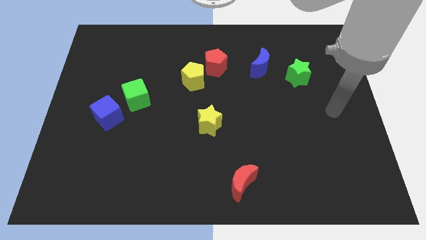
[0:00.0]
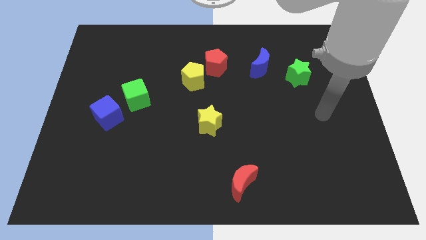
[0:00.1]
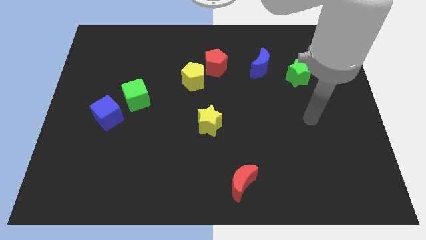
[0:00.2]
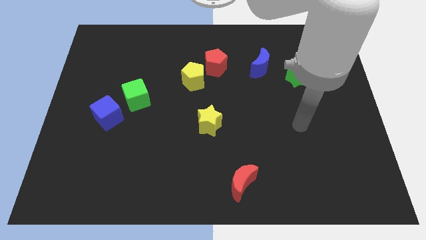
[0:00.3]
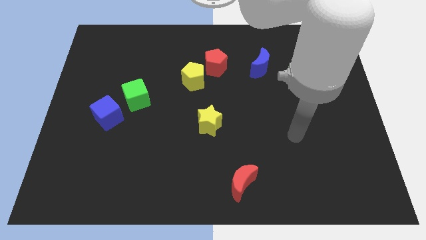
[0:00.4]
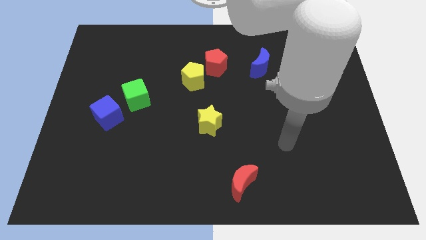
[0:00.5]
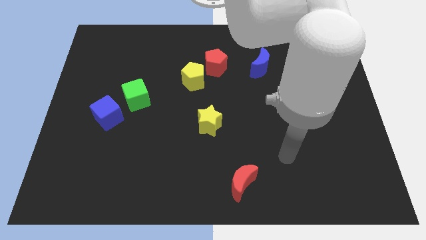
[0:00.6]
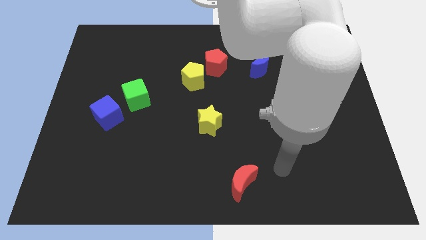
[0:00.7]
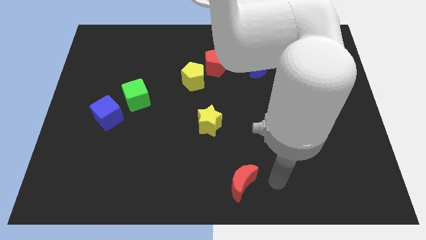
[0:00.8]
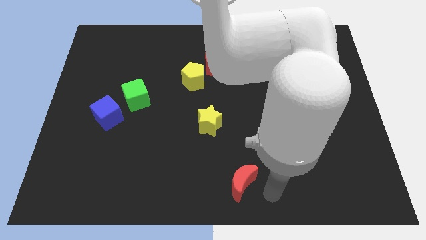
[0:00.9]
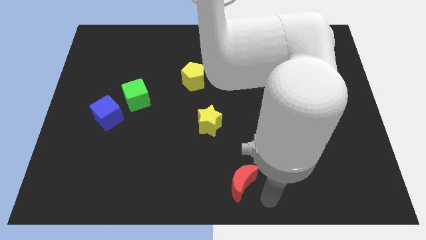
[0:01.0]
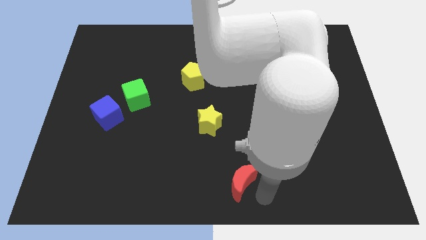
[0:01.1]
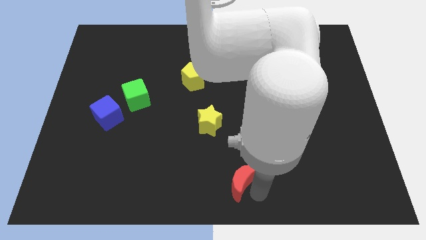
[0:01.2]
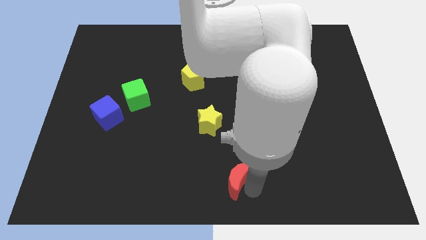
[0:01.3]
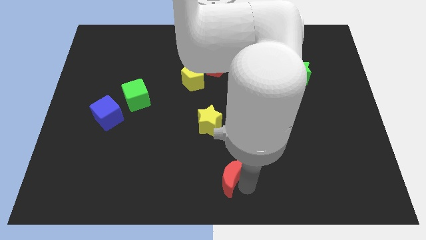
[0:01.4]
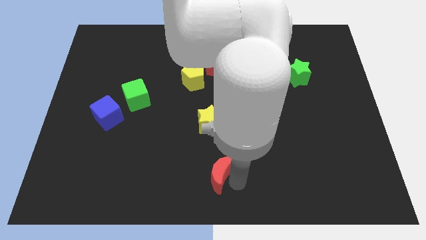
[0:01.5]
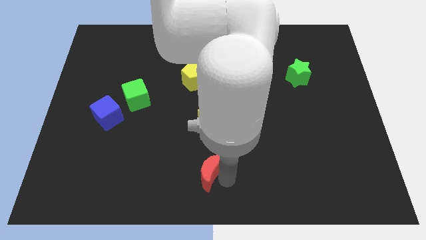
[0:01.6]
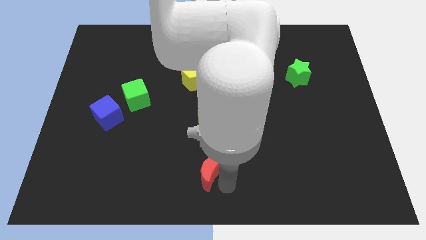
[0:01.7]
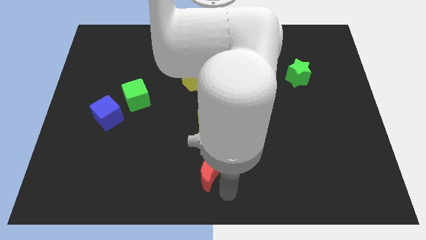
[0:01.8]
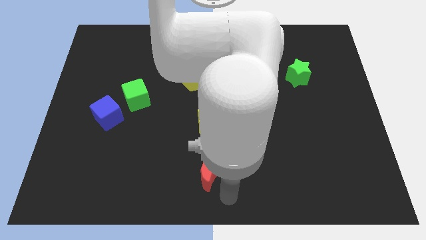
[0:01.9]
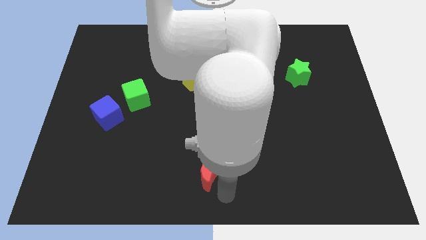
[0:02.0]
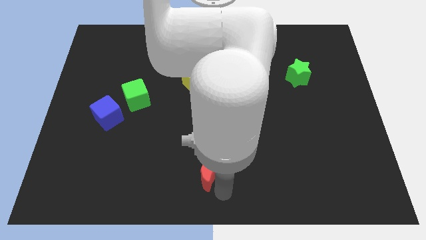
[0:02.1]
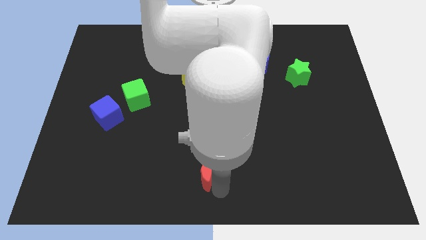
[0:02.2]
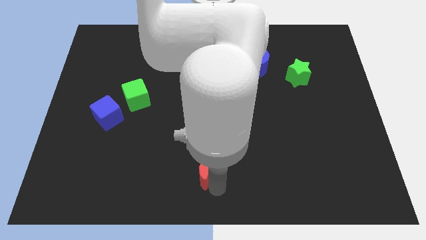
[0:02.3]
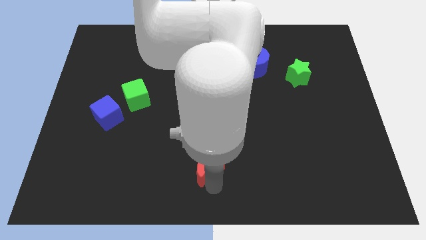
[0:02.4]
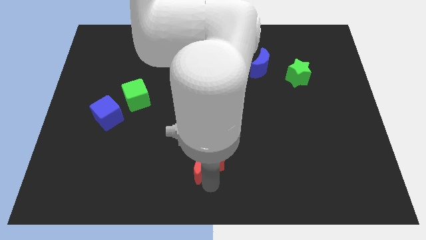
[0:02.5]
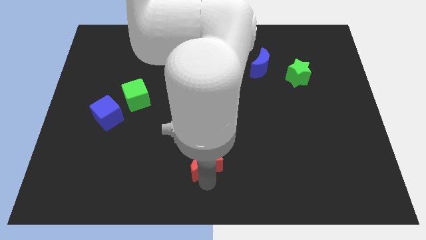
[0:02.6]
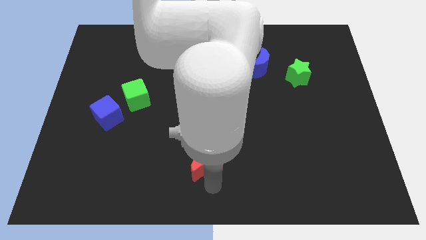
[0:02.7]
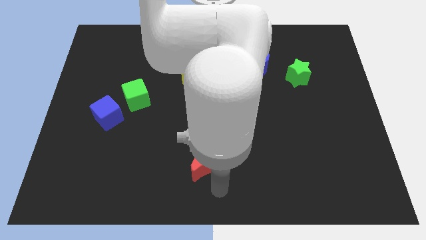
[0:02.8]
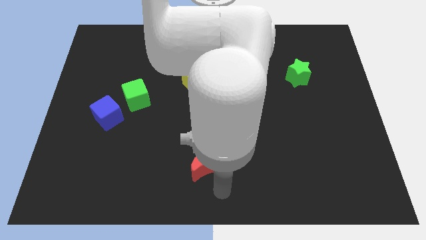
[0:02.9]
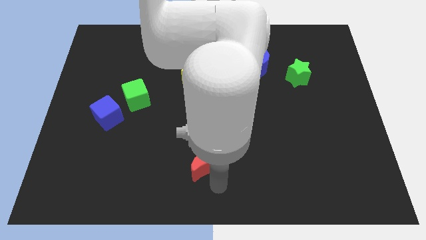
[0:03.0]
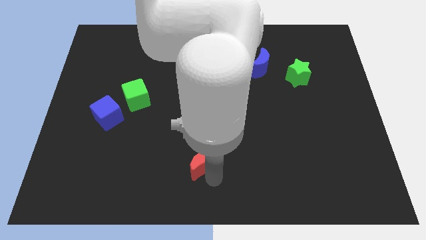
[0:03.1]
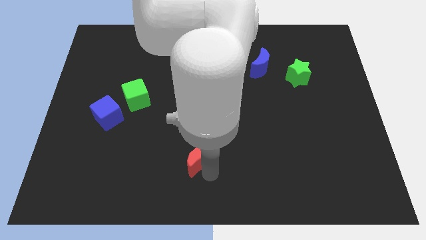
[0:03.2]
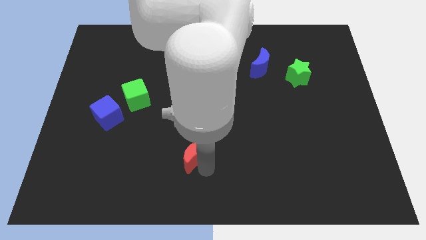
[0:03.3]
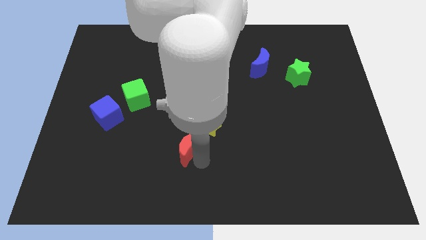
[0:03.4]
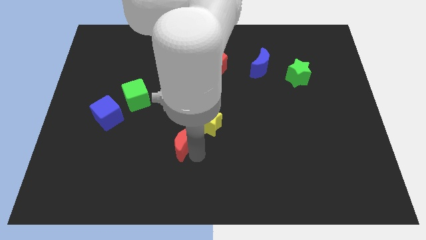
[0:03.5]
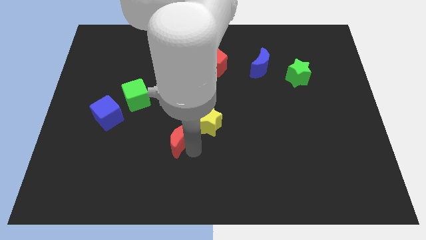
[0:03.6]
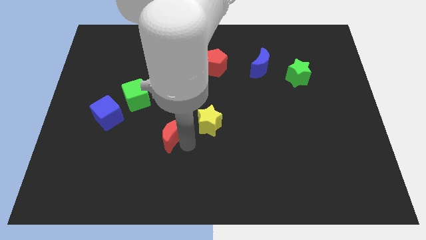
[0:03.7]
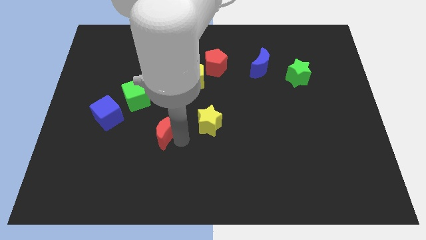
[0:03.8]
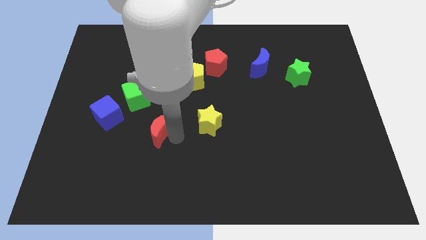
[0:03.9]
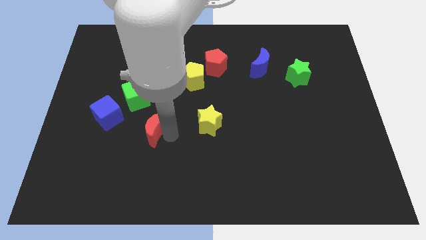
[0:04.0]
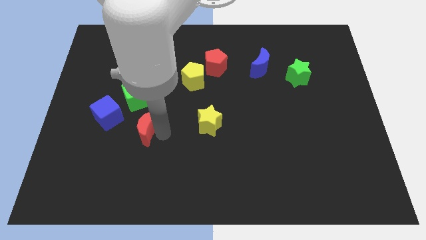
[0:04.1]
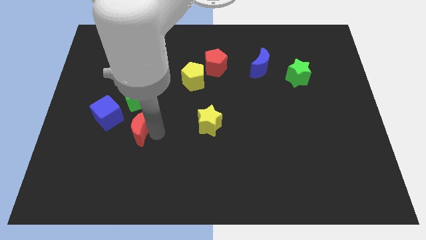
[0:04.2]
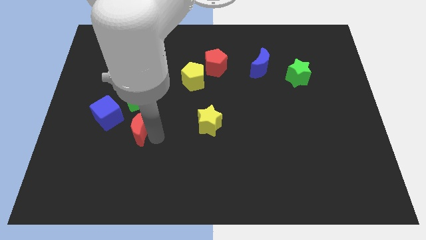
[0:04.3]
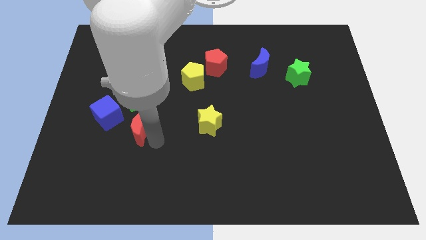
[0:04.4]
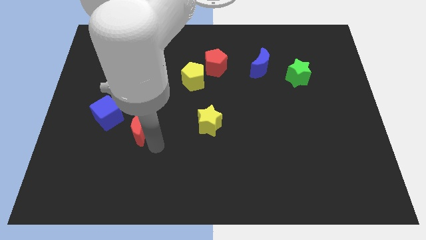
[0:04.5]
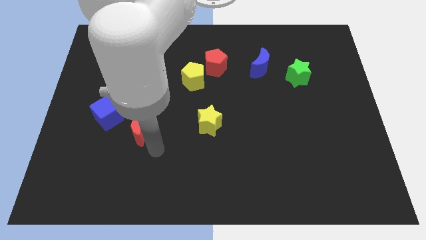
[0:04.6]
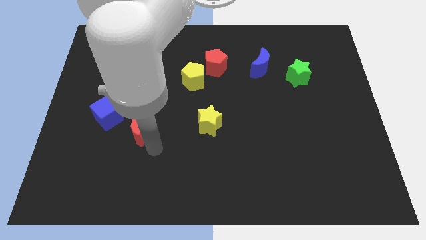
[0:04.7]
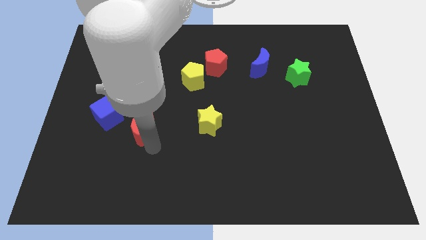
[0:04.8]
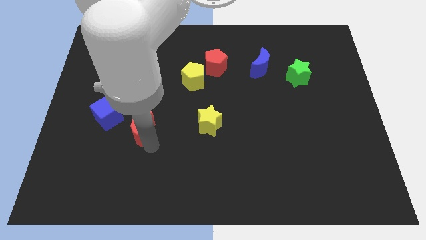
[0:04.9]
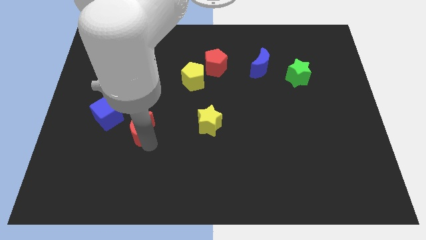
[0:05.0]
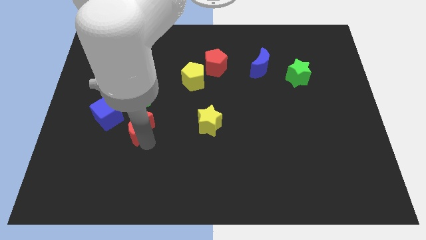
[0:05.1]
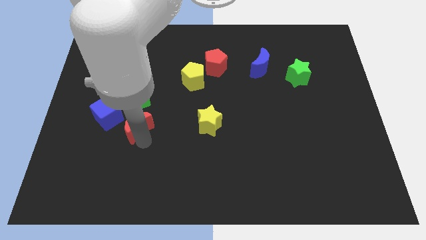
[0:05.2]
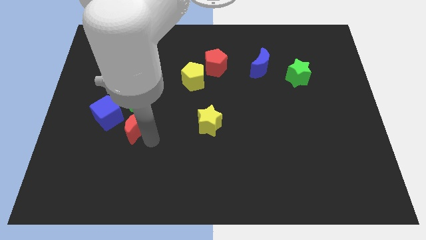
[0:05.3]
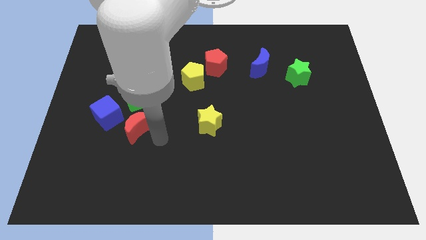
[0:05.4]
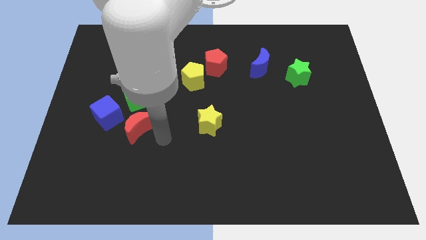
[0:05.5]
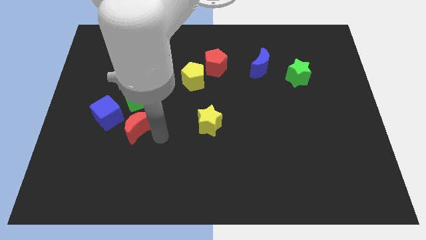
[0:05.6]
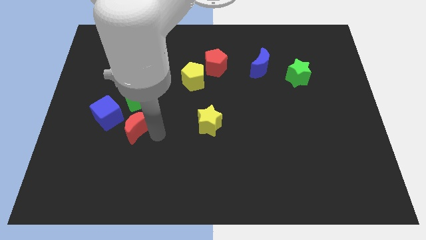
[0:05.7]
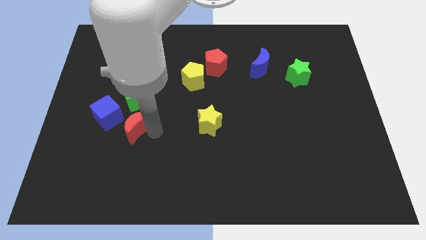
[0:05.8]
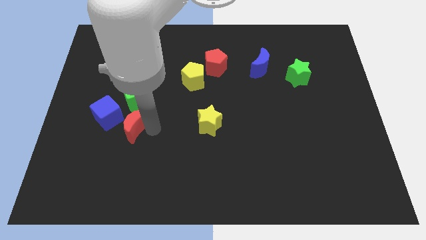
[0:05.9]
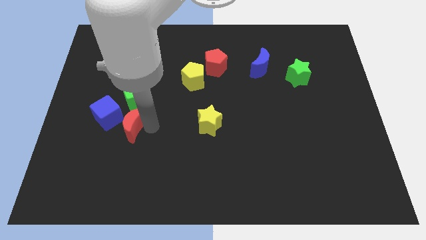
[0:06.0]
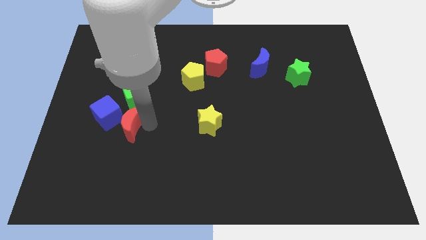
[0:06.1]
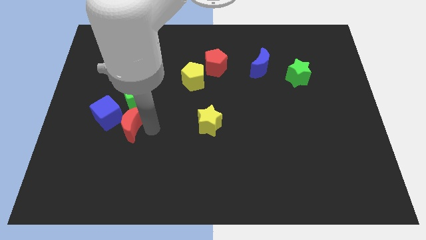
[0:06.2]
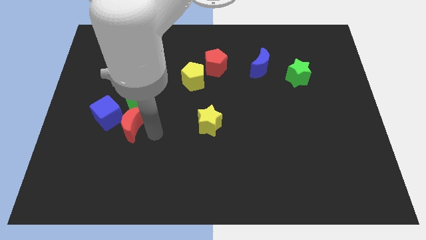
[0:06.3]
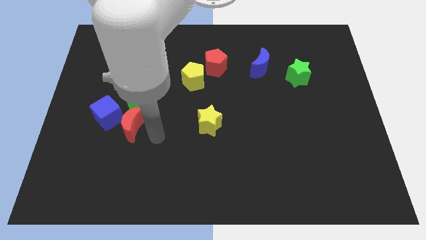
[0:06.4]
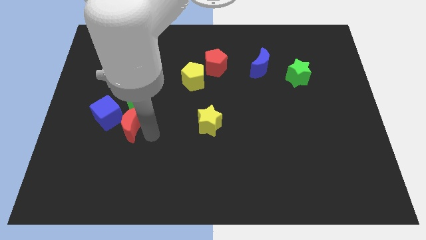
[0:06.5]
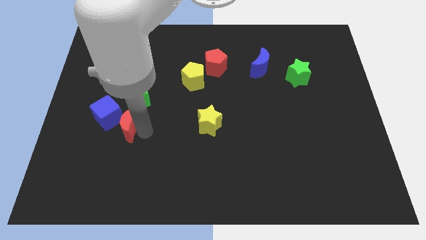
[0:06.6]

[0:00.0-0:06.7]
slide the red moon next to the blue cube
